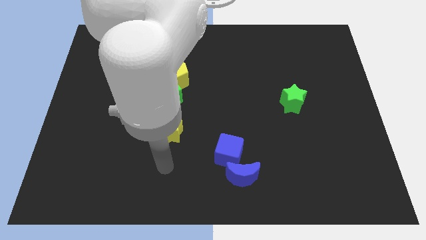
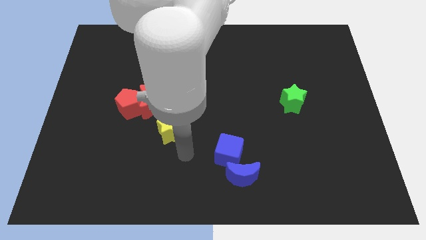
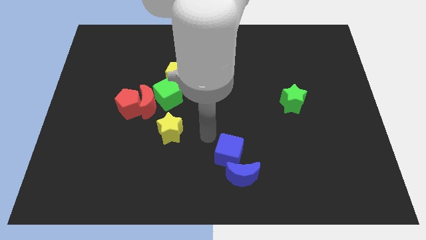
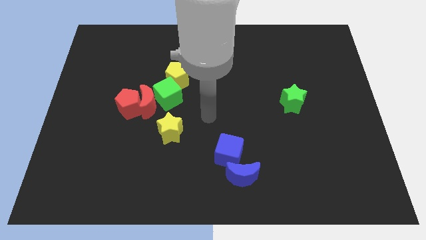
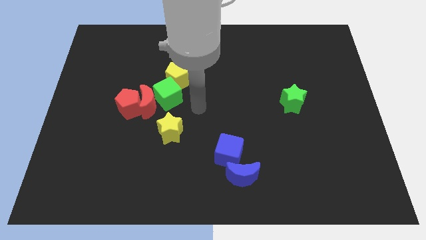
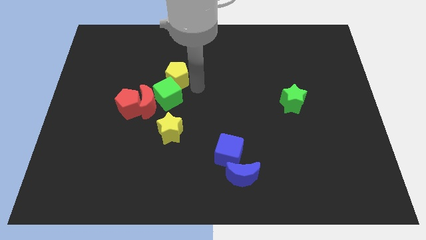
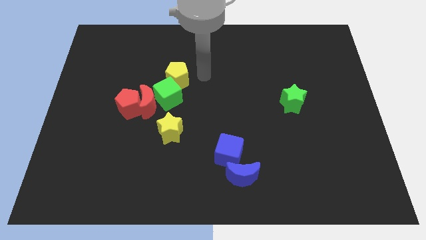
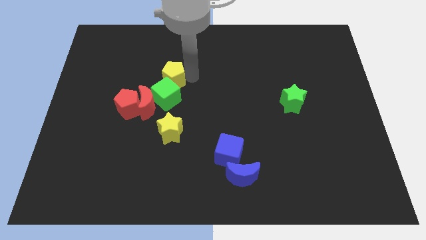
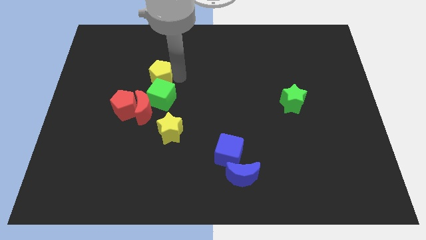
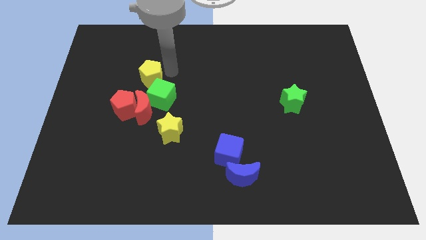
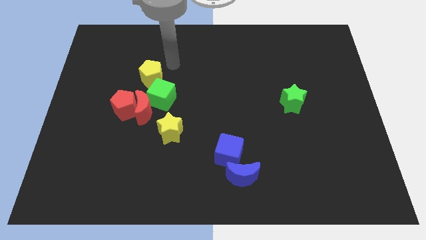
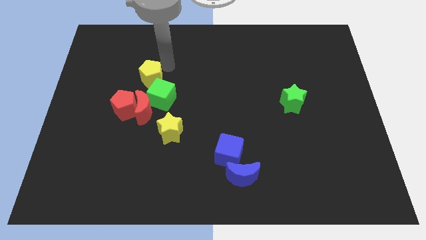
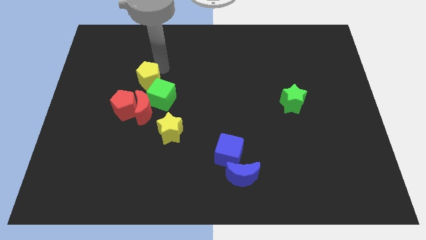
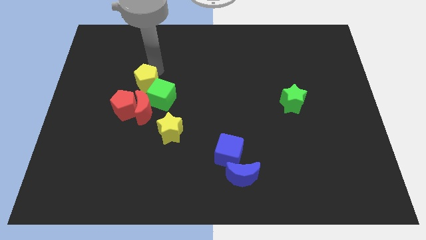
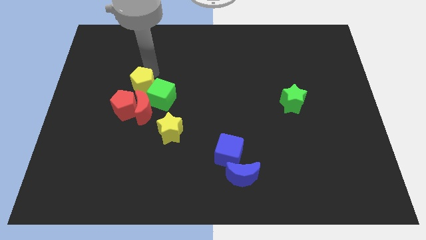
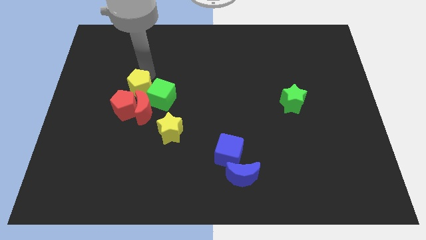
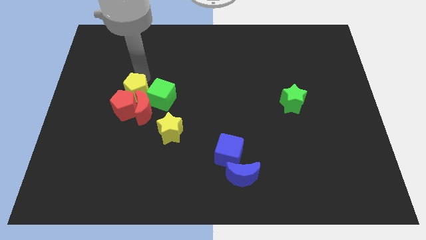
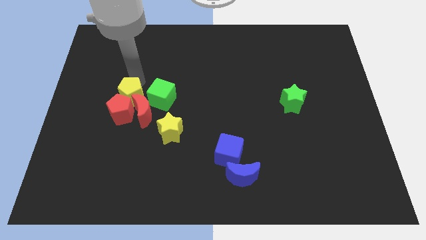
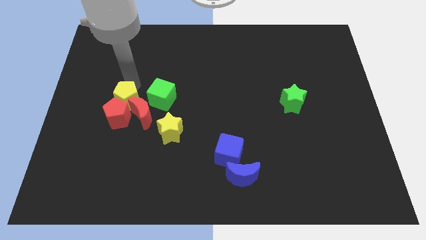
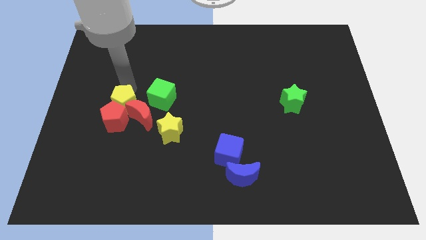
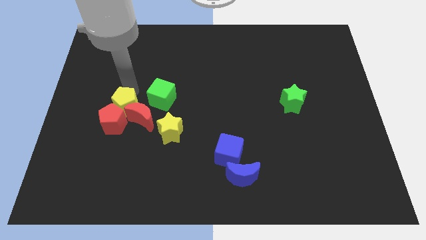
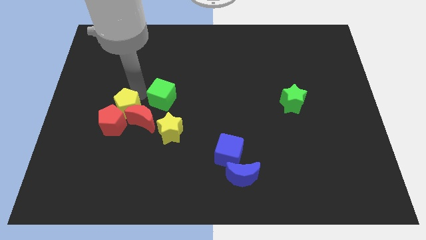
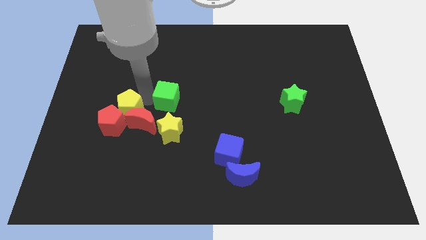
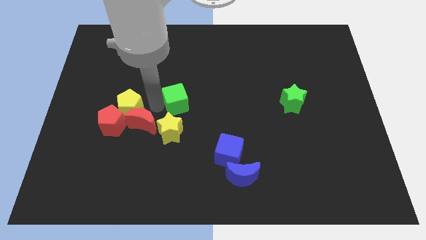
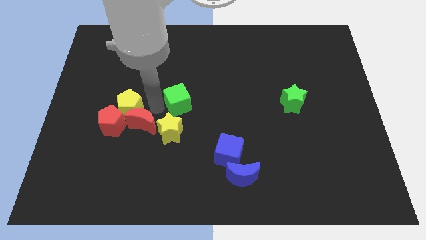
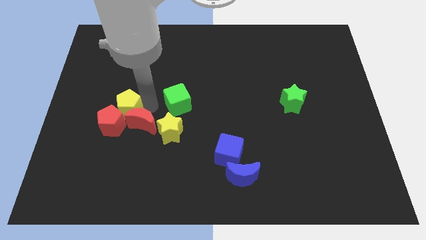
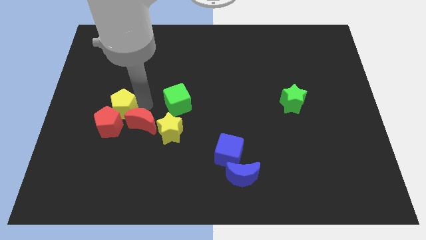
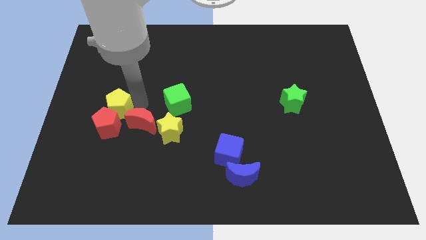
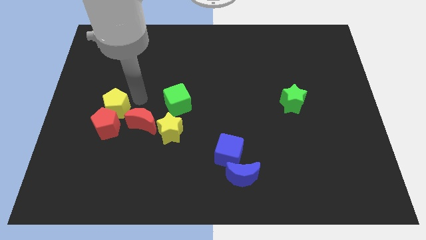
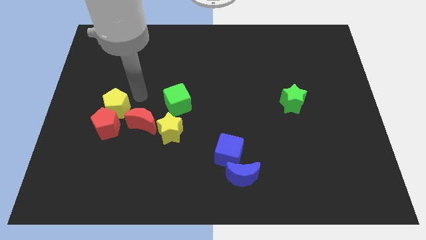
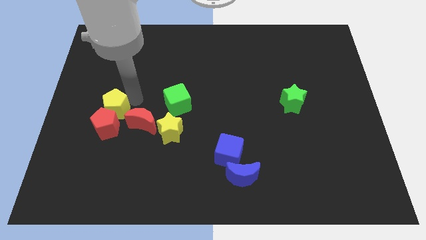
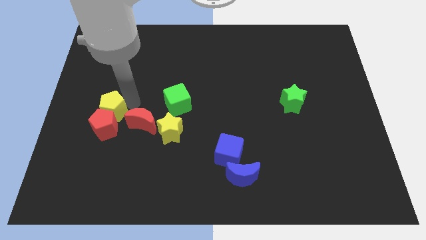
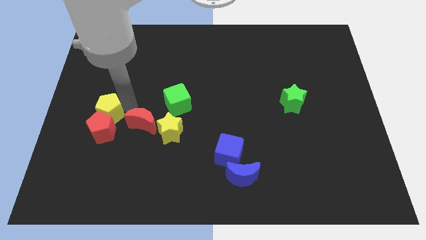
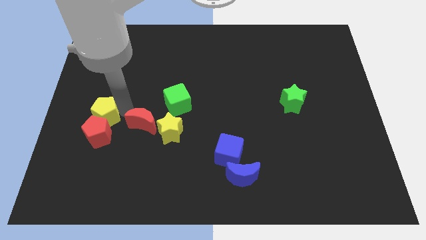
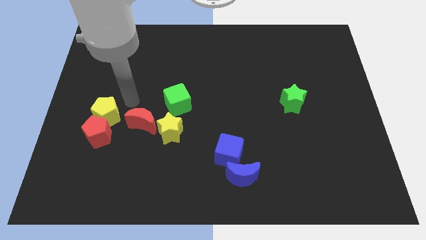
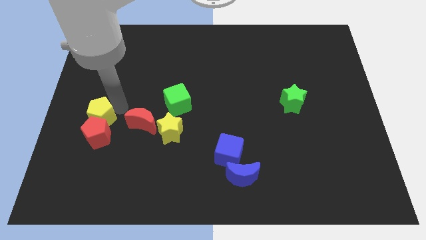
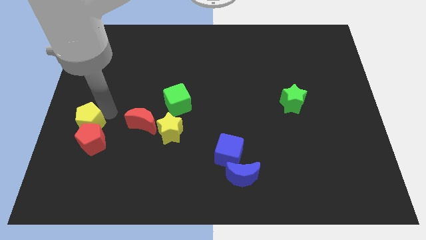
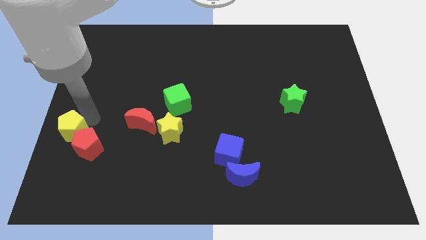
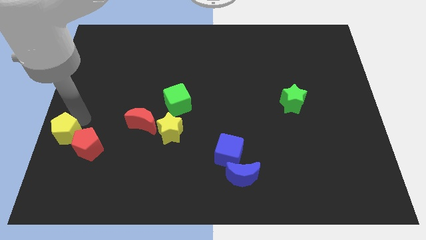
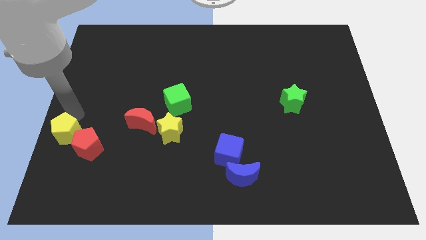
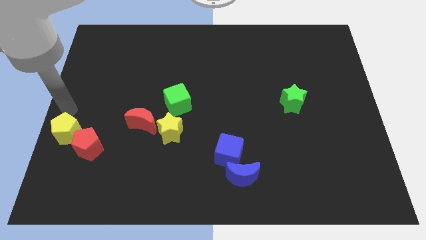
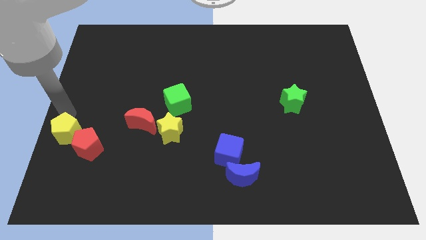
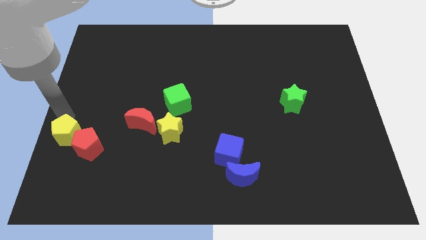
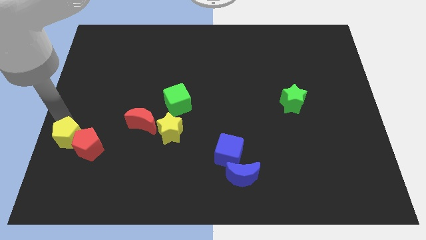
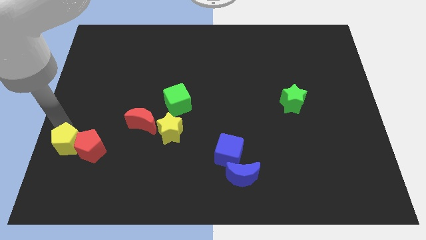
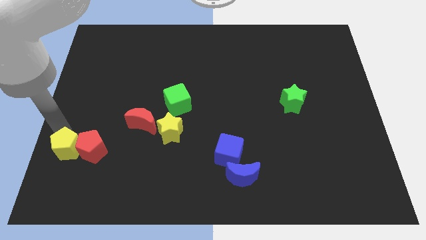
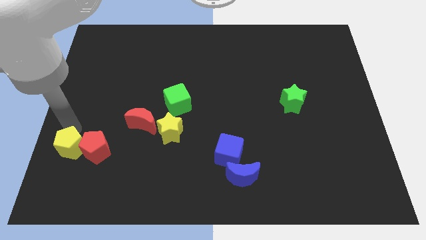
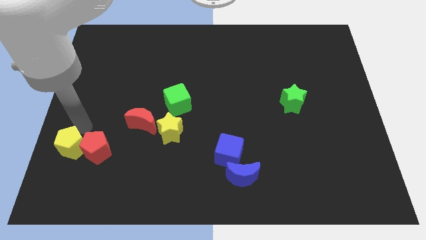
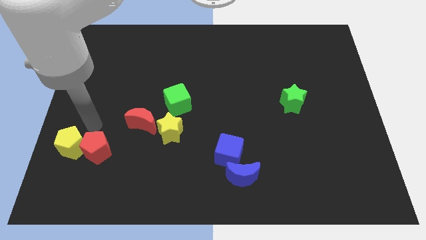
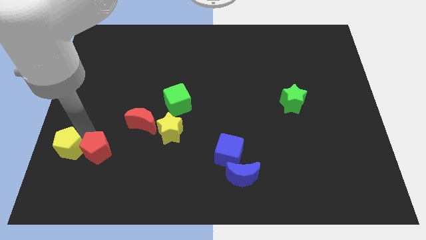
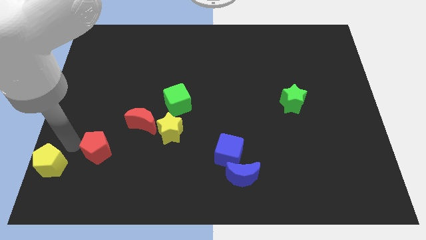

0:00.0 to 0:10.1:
move the yellow pentagon to the lower left corner

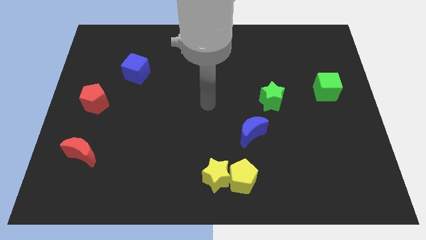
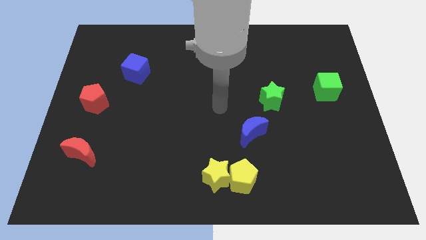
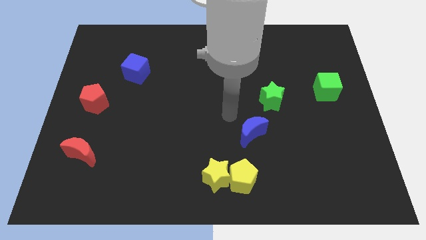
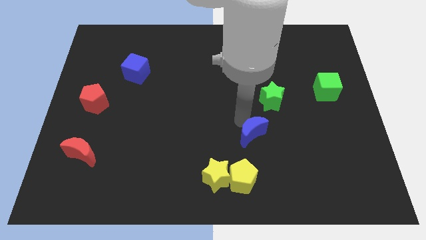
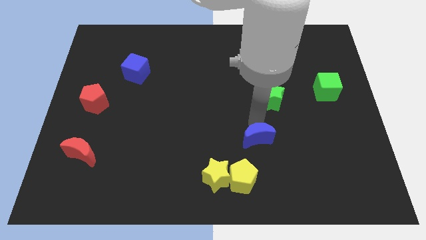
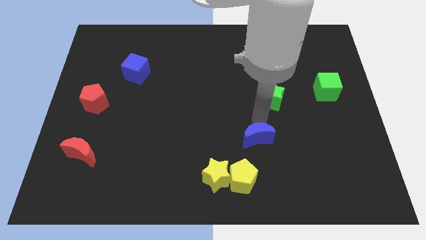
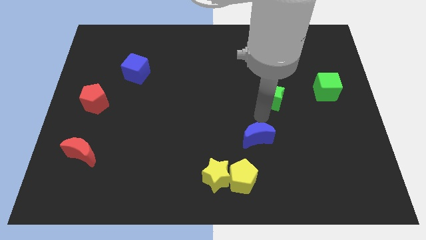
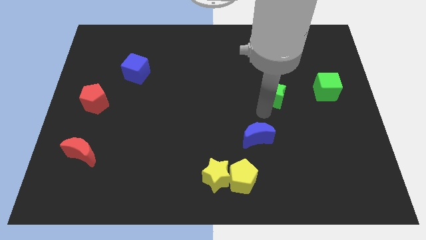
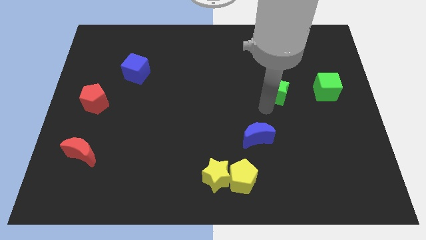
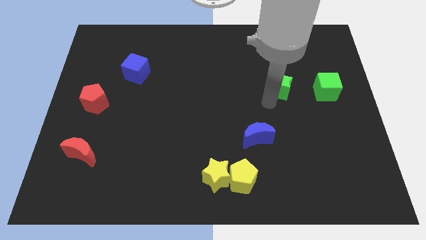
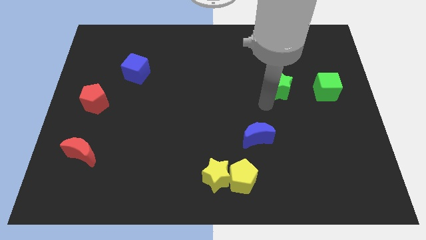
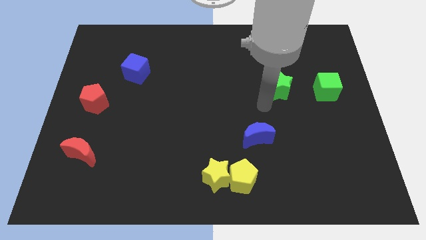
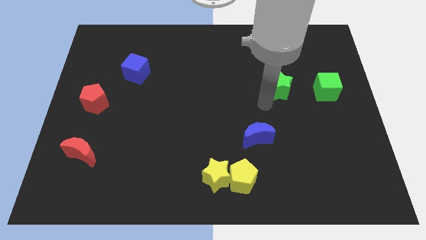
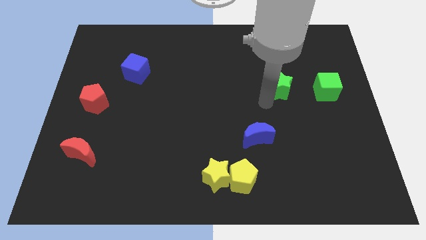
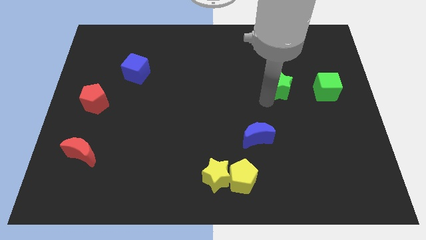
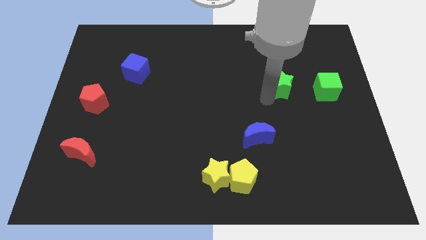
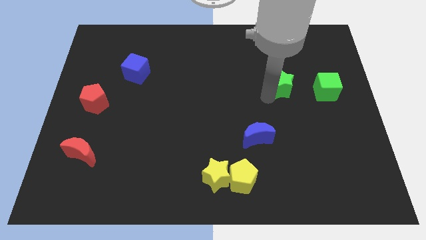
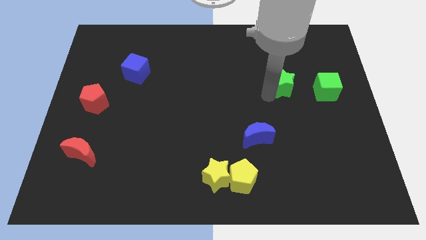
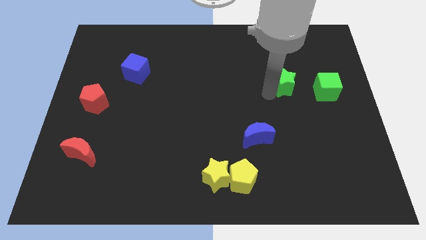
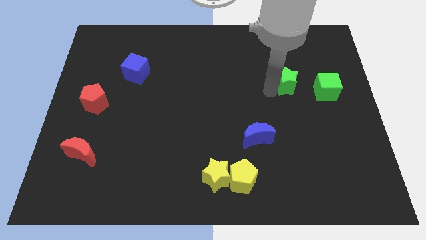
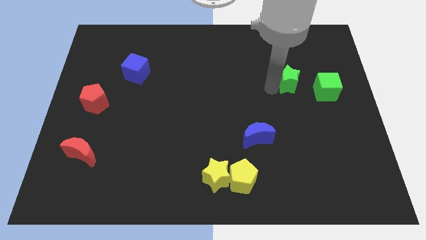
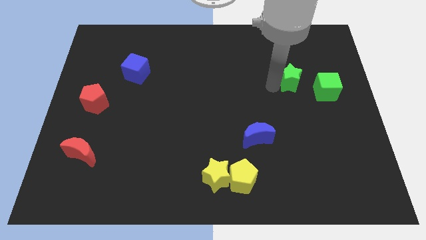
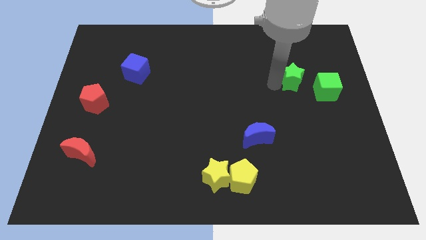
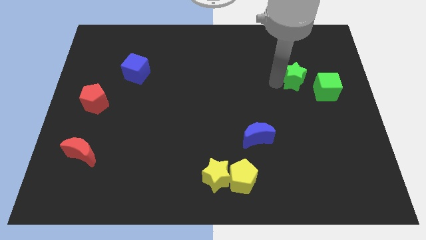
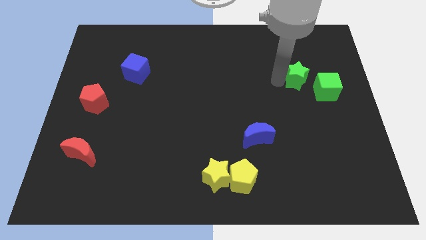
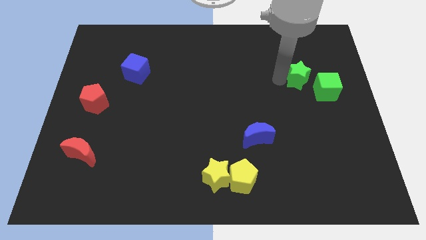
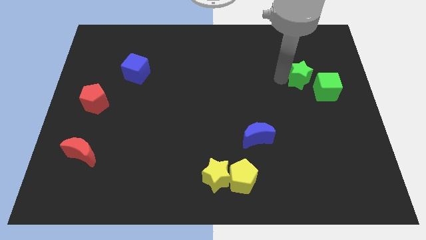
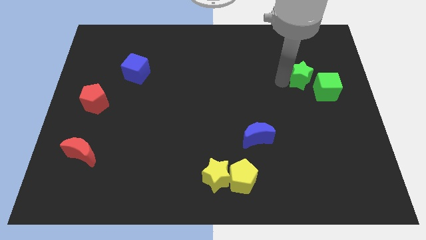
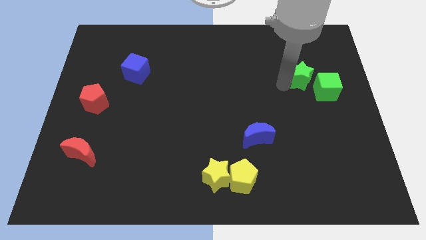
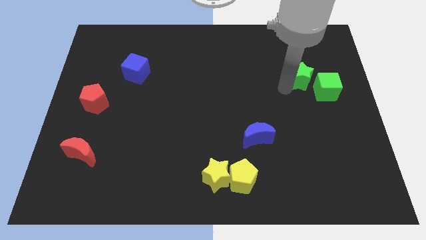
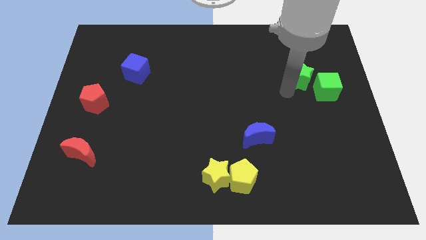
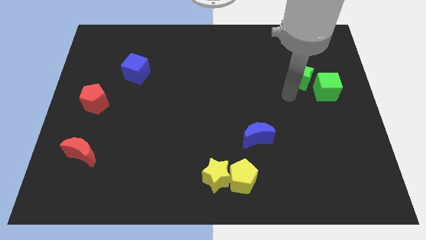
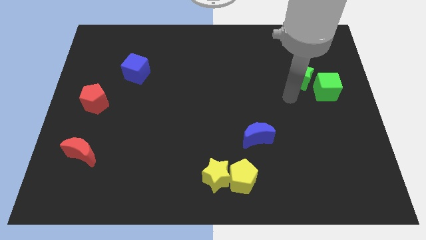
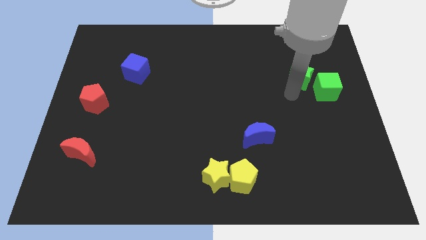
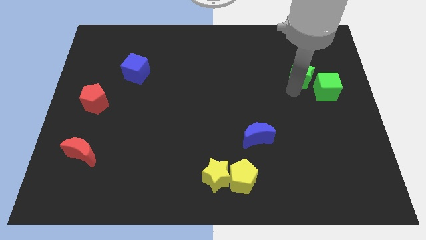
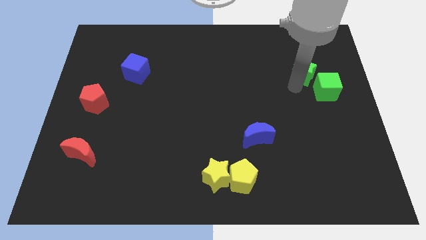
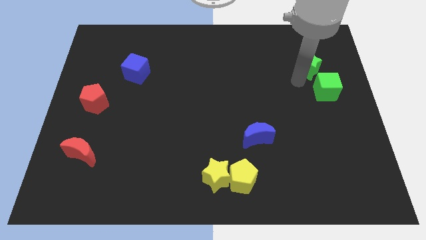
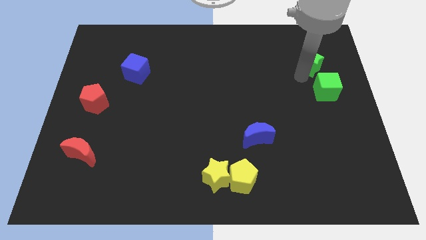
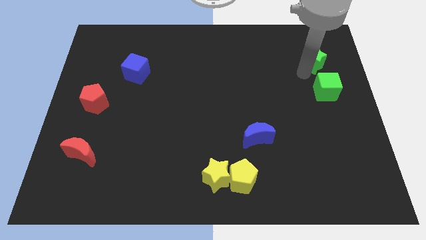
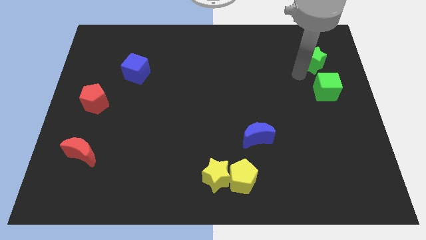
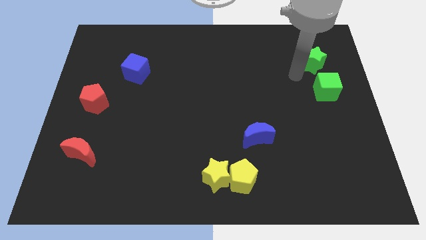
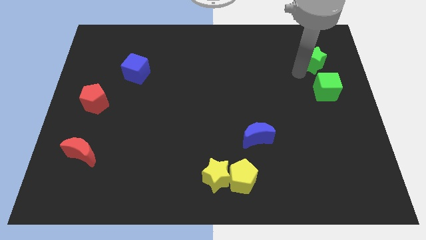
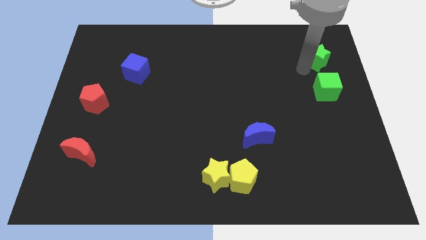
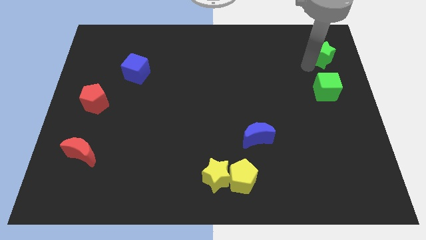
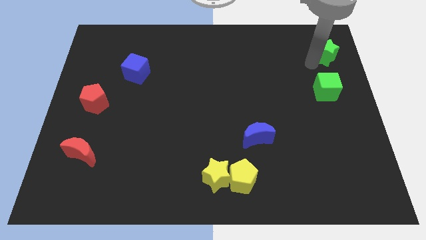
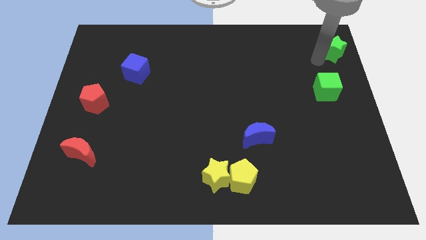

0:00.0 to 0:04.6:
move the green star to the upper right corner
